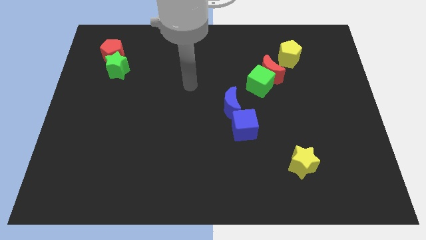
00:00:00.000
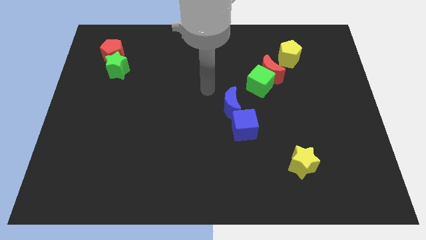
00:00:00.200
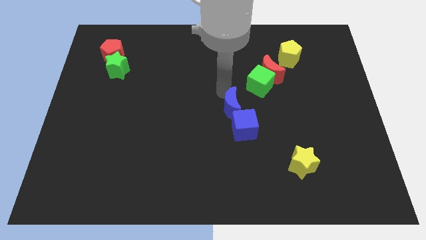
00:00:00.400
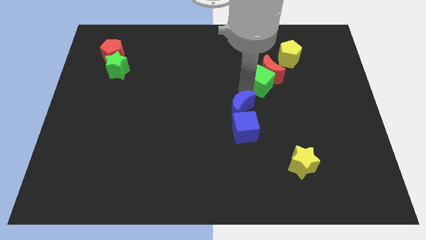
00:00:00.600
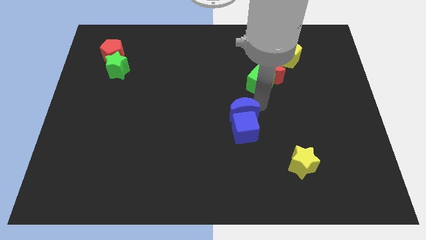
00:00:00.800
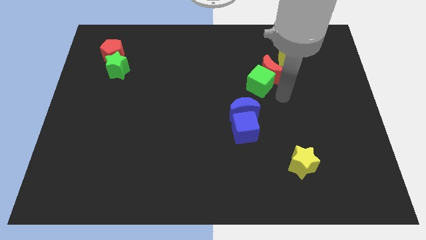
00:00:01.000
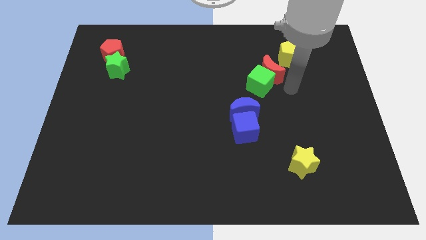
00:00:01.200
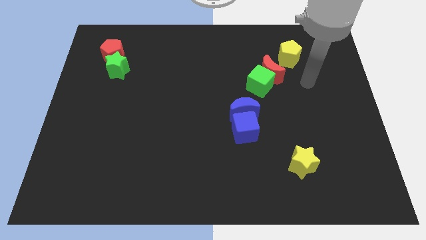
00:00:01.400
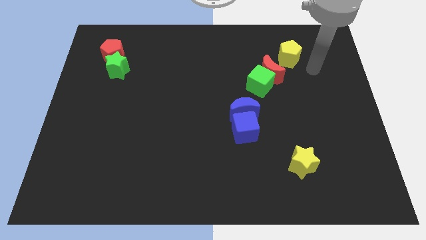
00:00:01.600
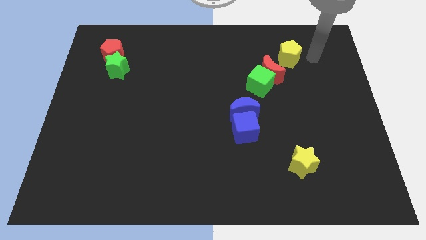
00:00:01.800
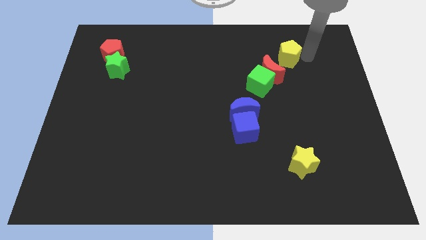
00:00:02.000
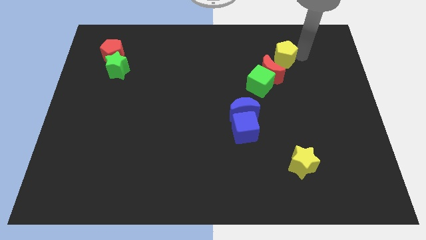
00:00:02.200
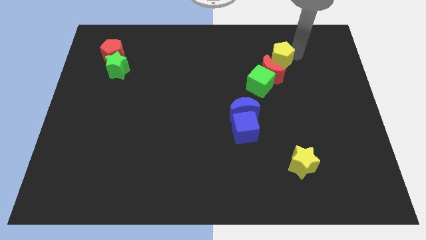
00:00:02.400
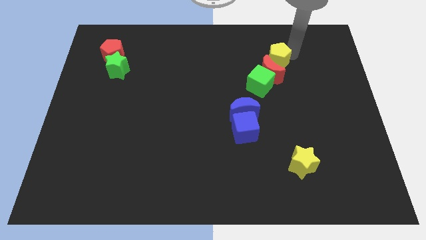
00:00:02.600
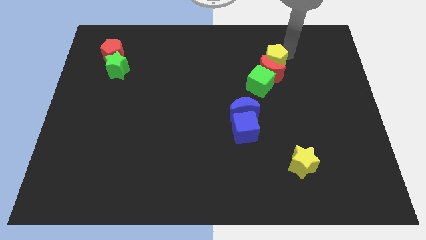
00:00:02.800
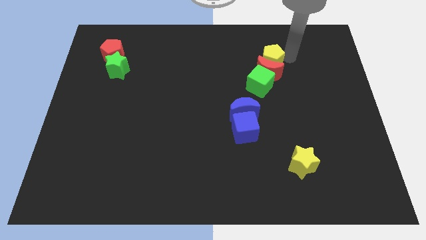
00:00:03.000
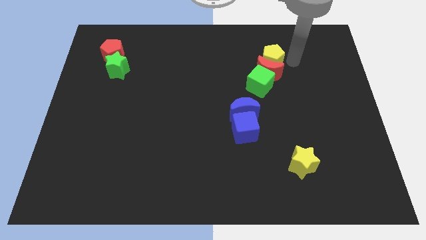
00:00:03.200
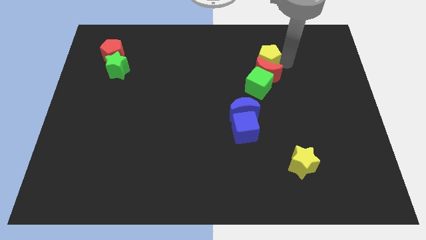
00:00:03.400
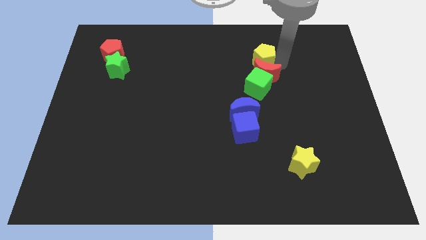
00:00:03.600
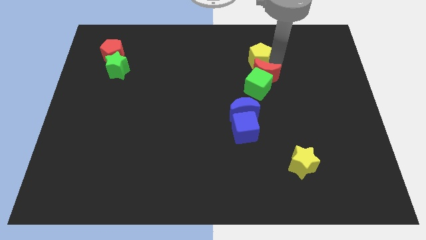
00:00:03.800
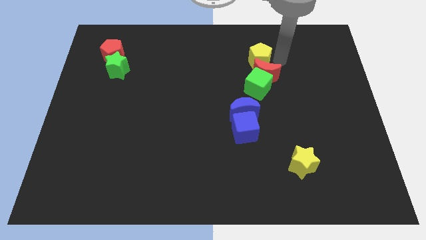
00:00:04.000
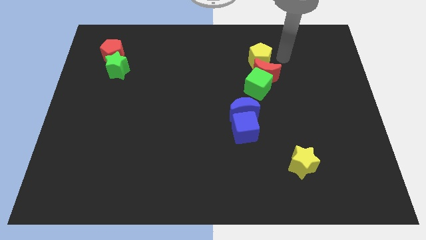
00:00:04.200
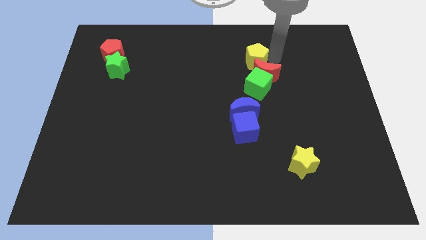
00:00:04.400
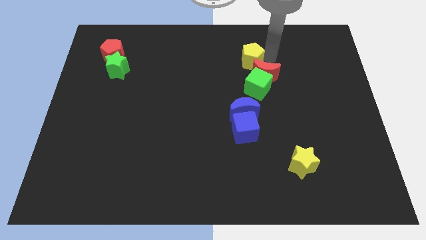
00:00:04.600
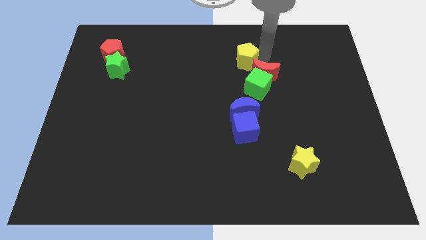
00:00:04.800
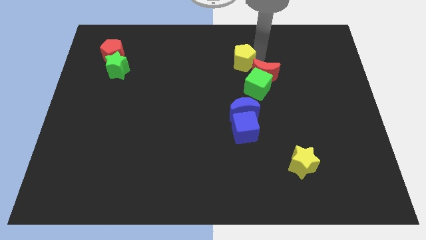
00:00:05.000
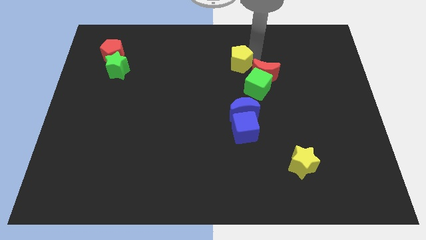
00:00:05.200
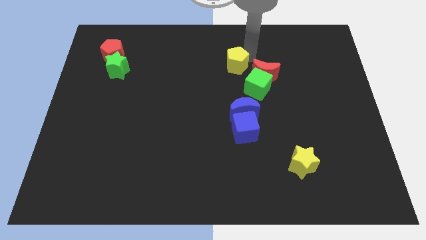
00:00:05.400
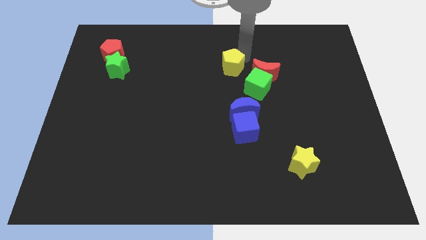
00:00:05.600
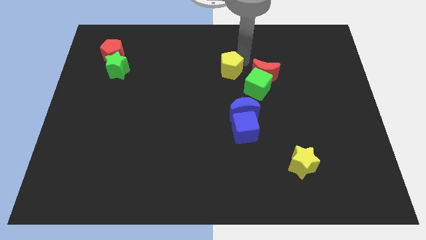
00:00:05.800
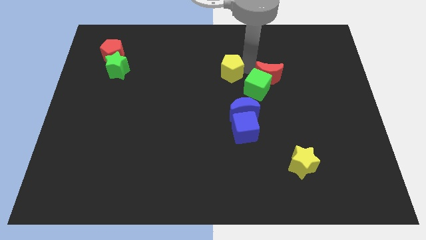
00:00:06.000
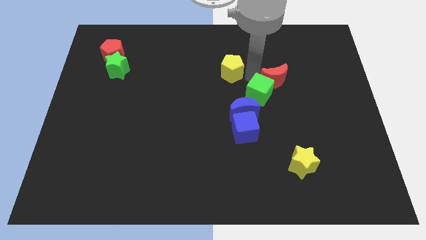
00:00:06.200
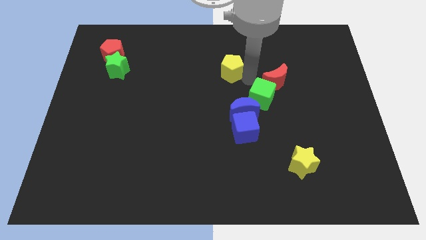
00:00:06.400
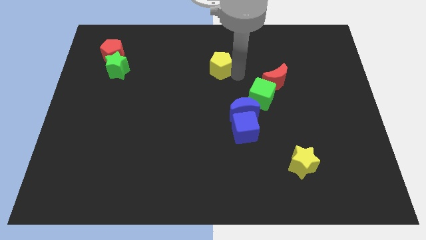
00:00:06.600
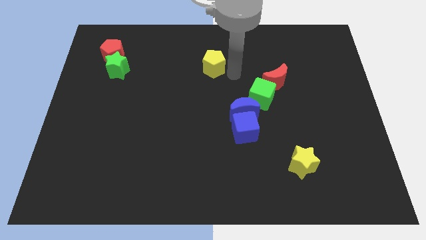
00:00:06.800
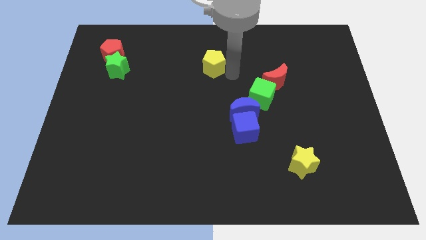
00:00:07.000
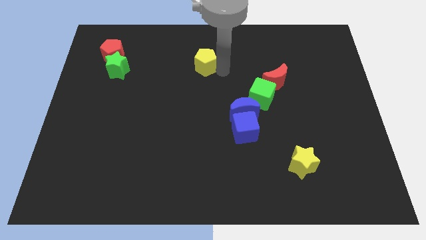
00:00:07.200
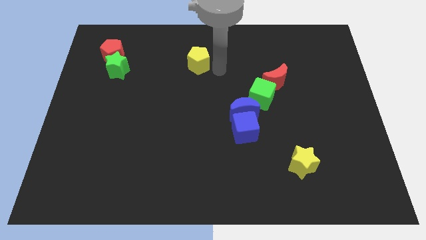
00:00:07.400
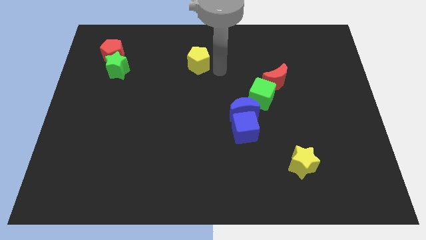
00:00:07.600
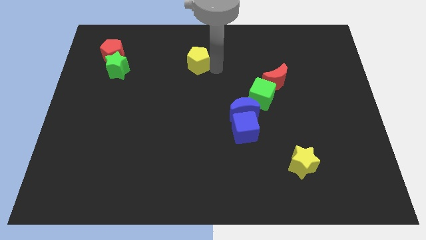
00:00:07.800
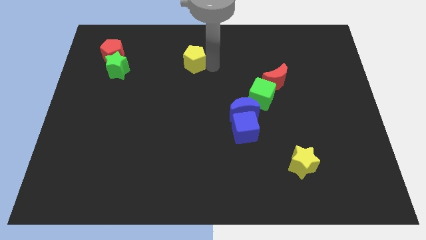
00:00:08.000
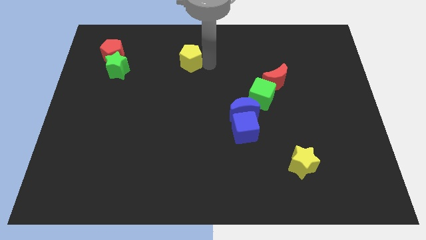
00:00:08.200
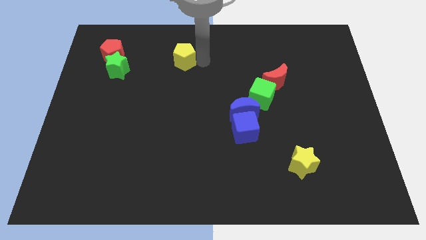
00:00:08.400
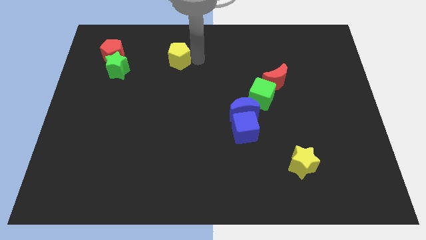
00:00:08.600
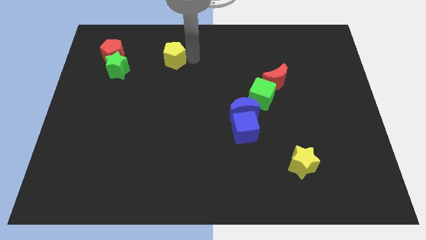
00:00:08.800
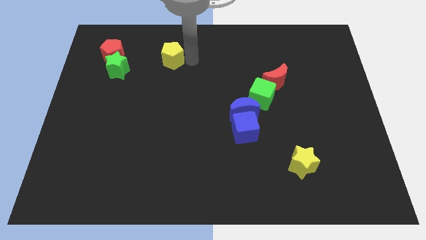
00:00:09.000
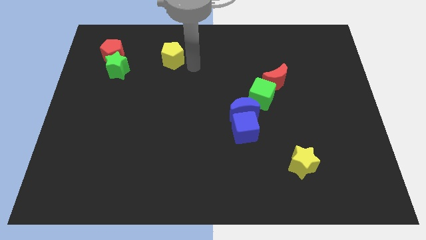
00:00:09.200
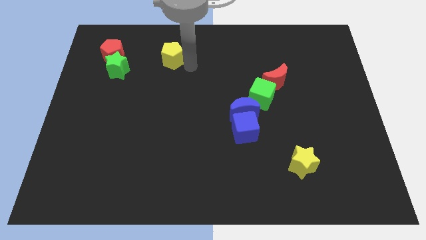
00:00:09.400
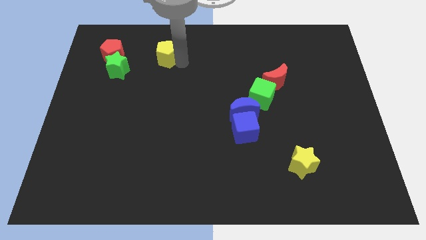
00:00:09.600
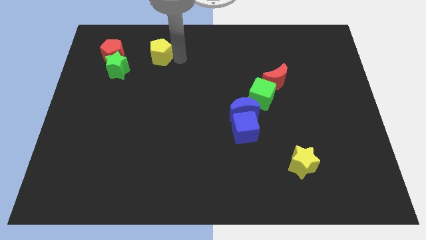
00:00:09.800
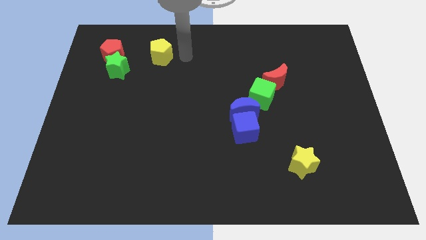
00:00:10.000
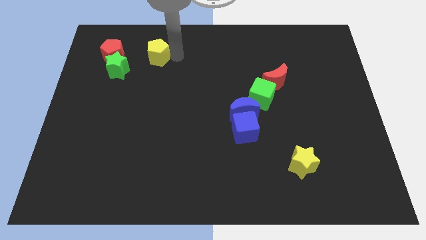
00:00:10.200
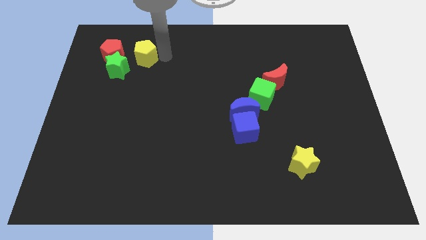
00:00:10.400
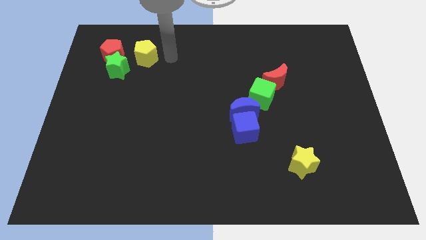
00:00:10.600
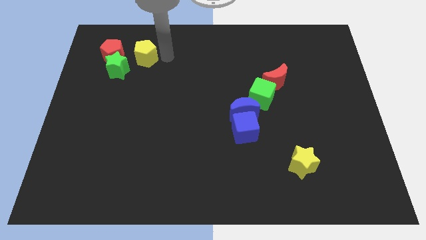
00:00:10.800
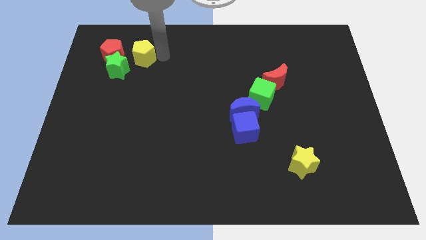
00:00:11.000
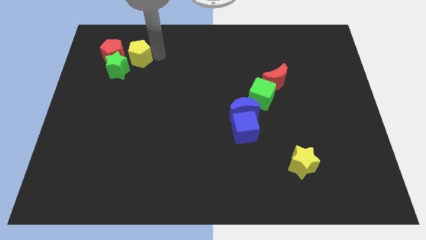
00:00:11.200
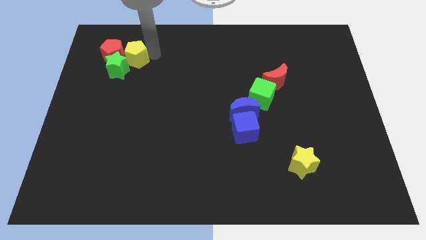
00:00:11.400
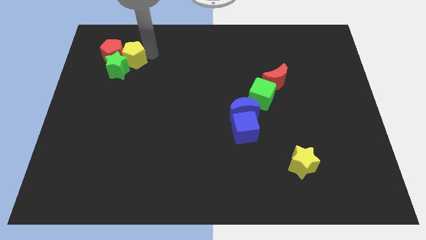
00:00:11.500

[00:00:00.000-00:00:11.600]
push the yellow pentagon close to the red pentagon

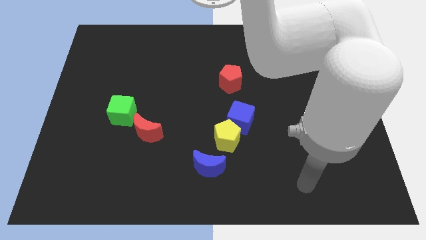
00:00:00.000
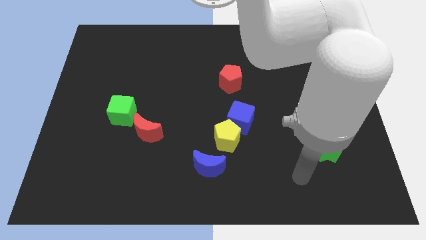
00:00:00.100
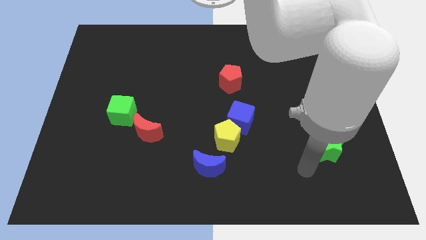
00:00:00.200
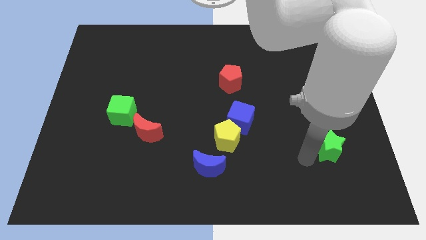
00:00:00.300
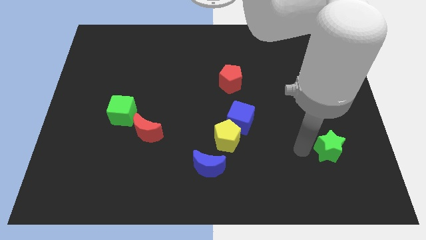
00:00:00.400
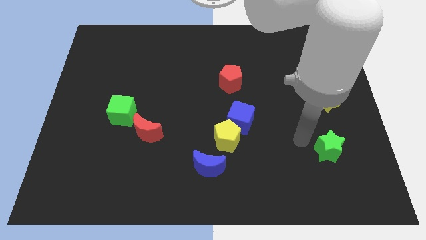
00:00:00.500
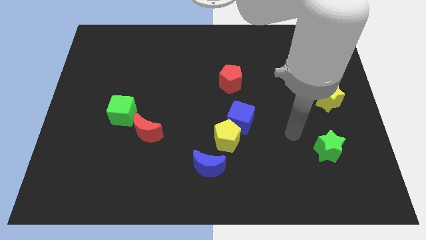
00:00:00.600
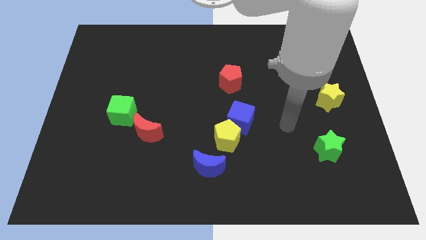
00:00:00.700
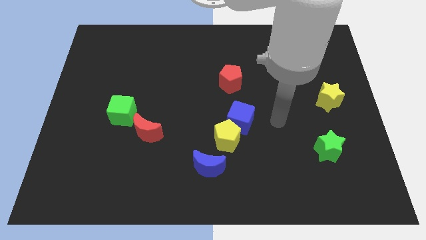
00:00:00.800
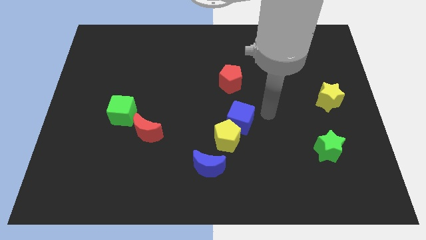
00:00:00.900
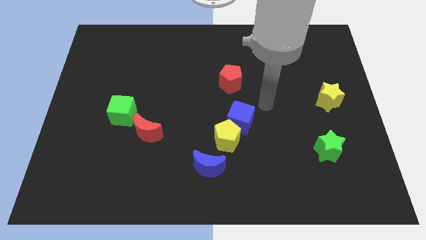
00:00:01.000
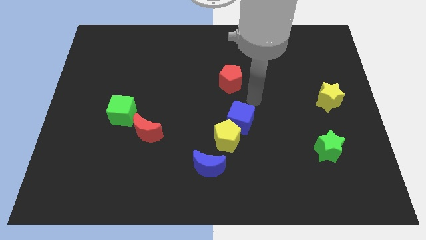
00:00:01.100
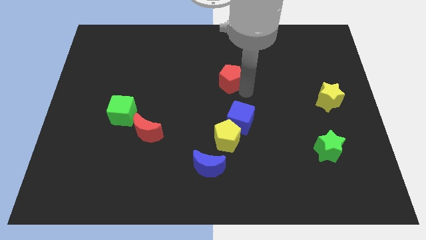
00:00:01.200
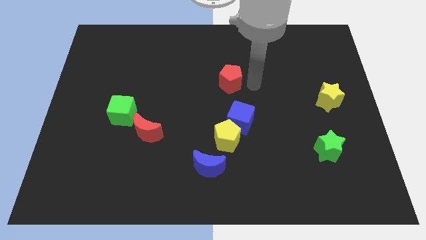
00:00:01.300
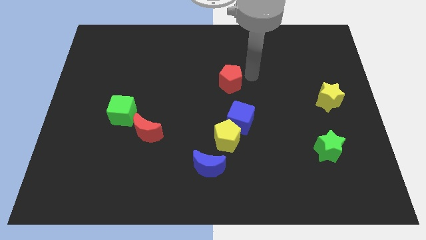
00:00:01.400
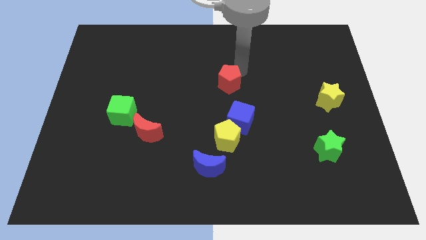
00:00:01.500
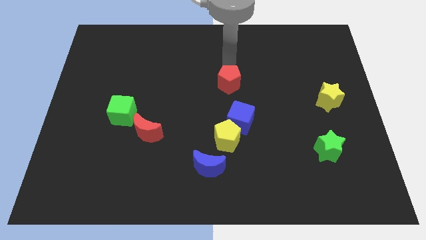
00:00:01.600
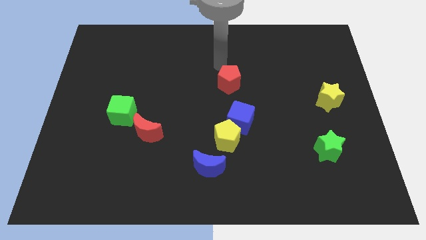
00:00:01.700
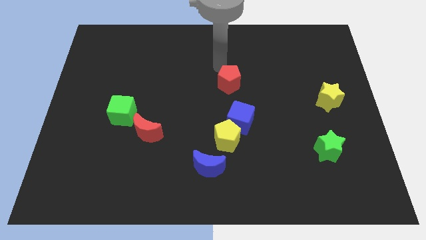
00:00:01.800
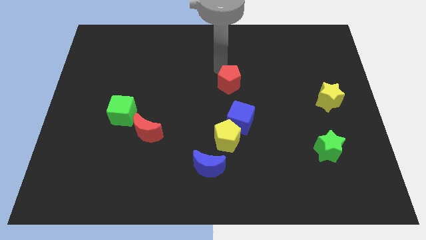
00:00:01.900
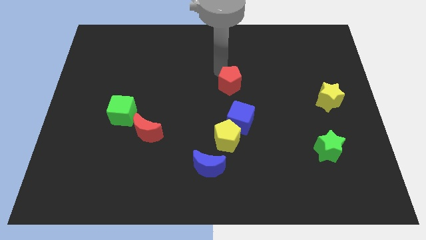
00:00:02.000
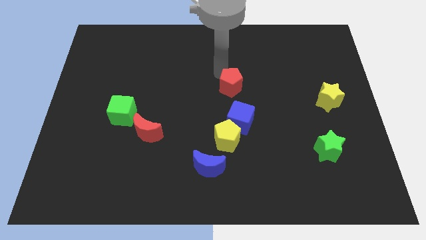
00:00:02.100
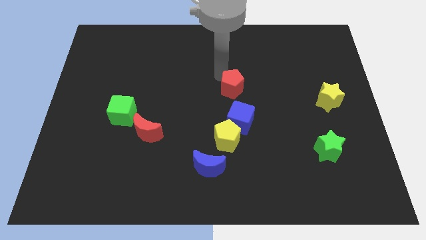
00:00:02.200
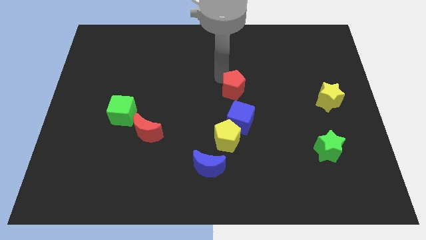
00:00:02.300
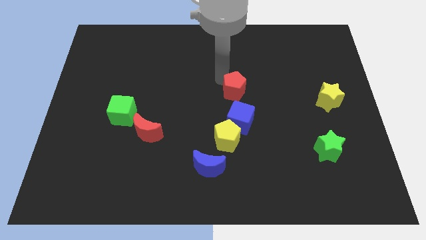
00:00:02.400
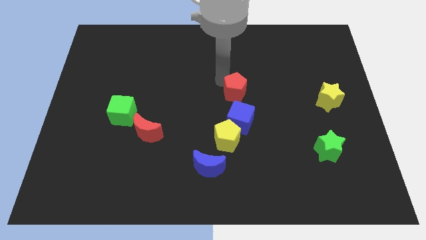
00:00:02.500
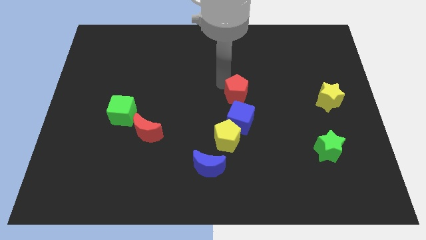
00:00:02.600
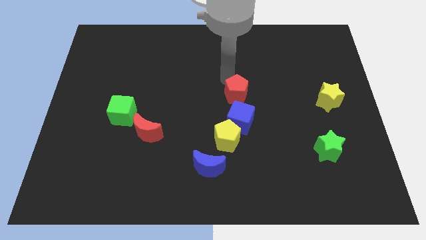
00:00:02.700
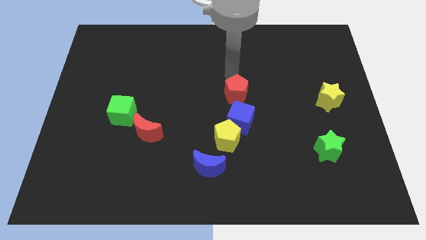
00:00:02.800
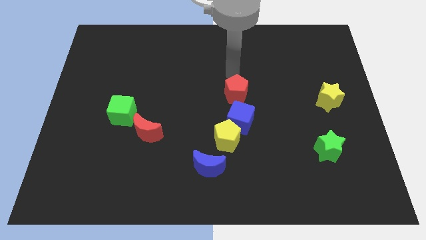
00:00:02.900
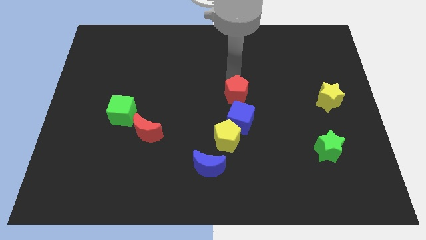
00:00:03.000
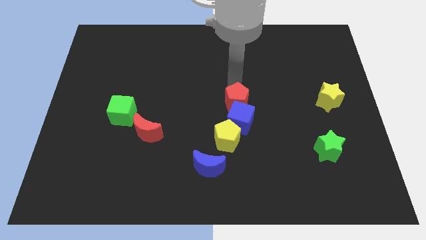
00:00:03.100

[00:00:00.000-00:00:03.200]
slide the red pentagon towards the blue cube
